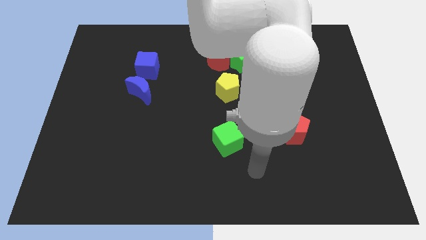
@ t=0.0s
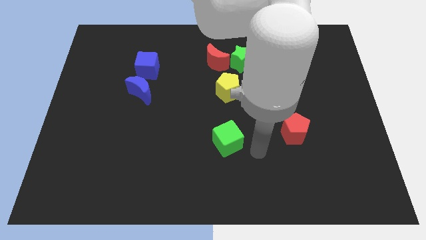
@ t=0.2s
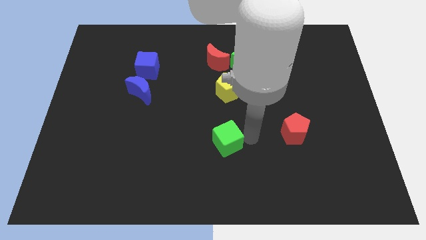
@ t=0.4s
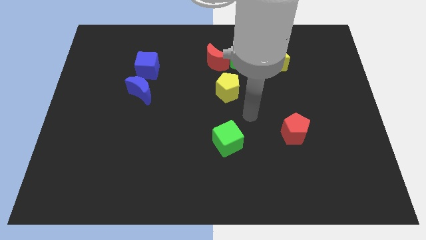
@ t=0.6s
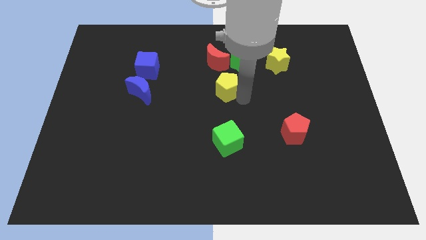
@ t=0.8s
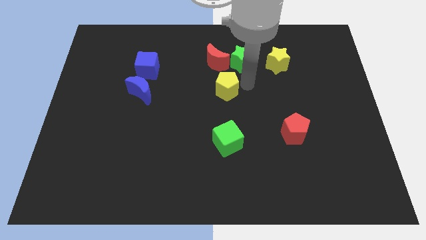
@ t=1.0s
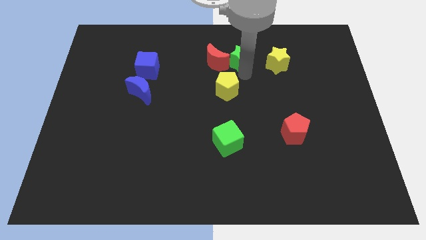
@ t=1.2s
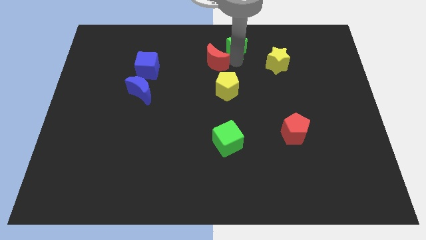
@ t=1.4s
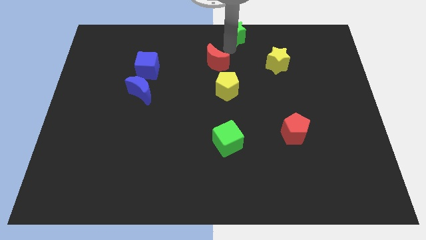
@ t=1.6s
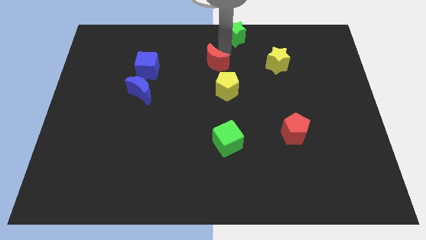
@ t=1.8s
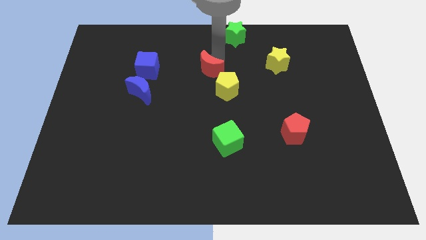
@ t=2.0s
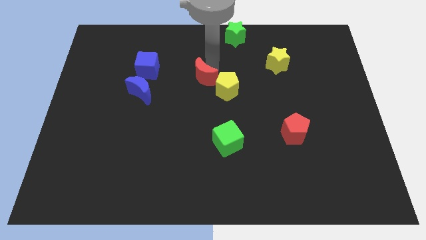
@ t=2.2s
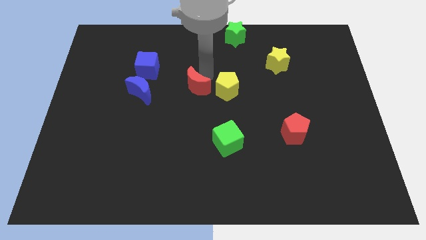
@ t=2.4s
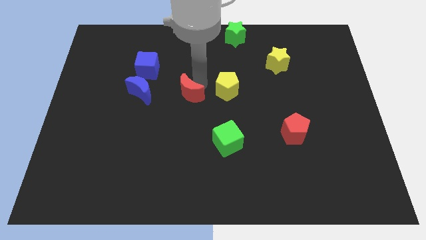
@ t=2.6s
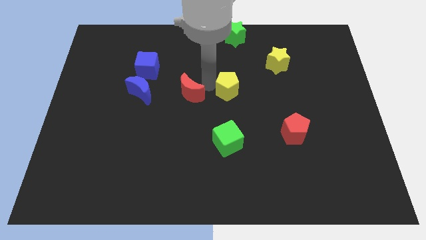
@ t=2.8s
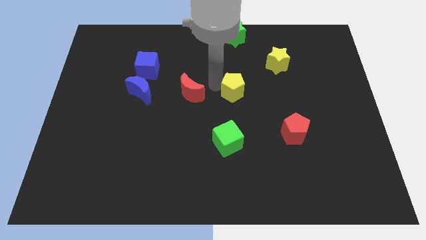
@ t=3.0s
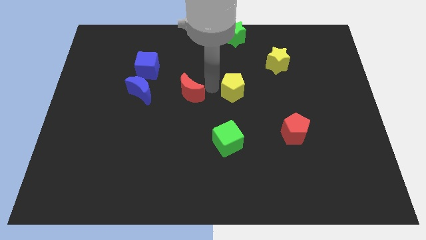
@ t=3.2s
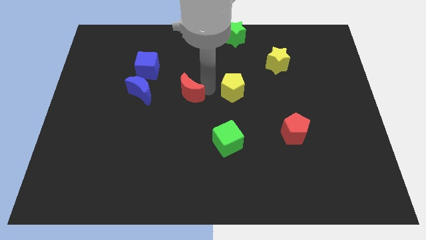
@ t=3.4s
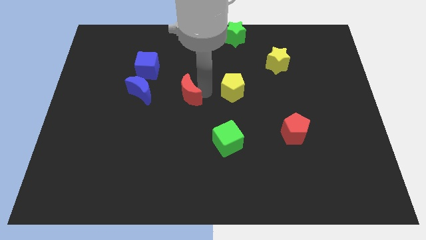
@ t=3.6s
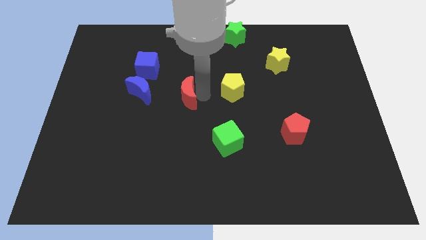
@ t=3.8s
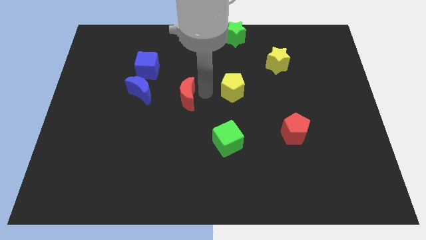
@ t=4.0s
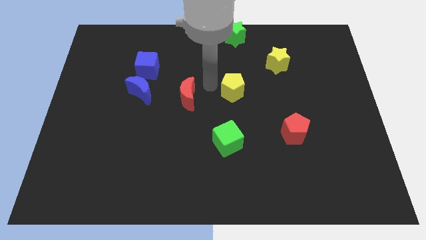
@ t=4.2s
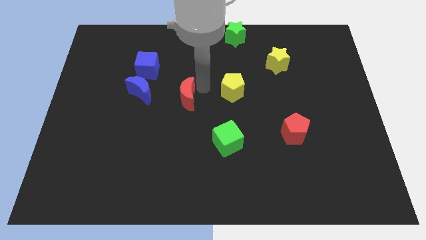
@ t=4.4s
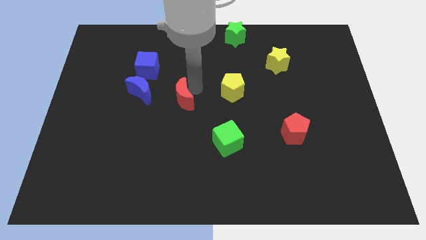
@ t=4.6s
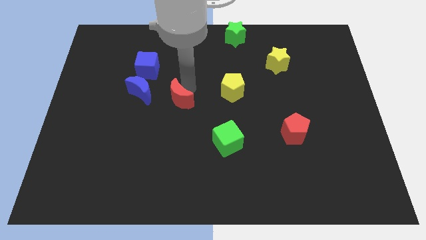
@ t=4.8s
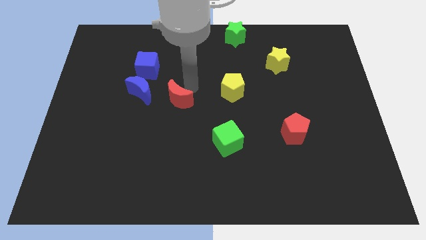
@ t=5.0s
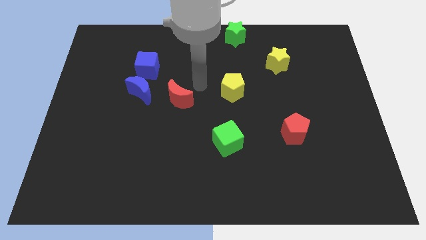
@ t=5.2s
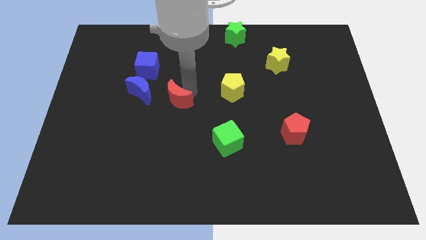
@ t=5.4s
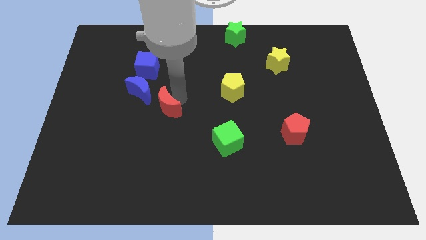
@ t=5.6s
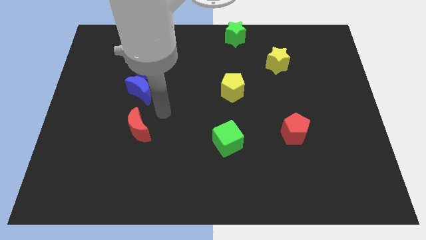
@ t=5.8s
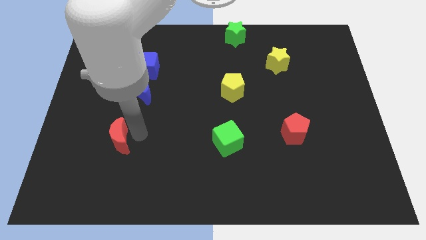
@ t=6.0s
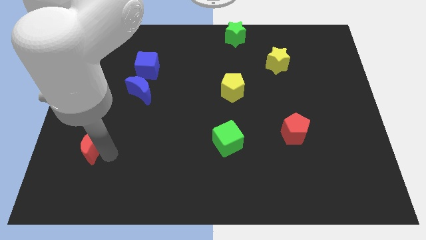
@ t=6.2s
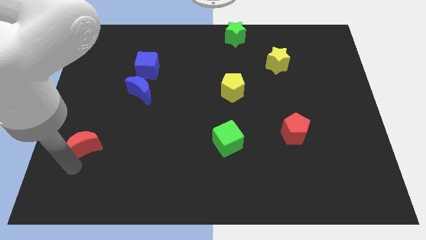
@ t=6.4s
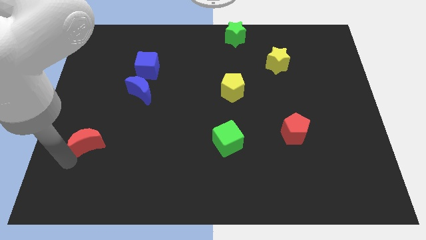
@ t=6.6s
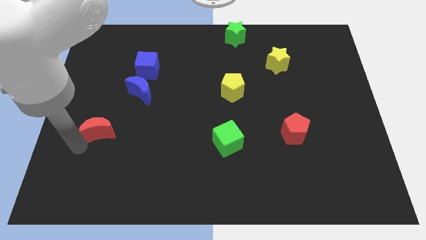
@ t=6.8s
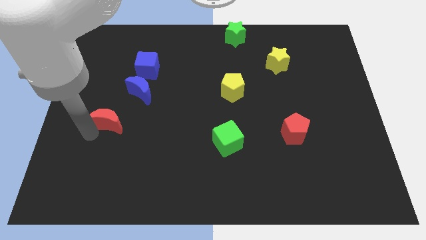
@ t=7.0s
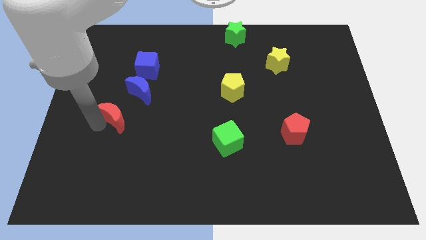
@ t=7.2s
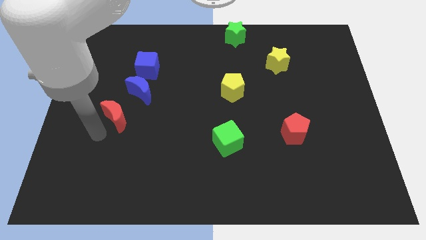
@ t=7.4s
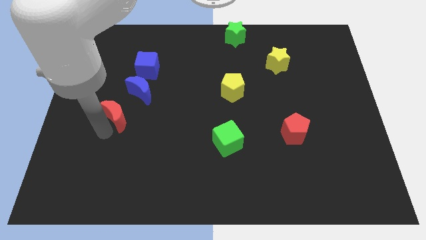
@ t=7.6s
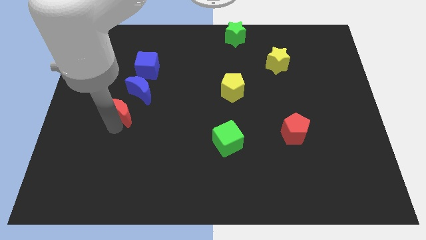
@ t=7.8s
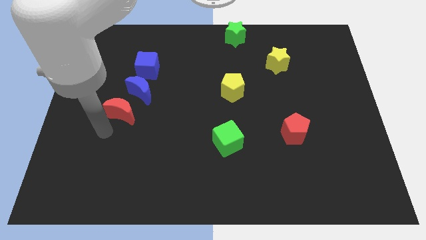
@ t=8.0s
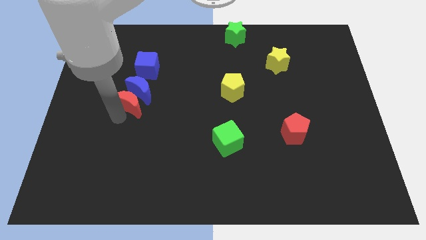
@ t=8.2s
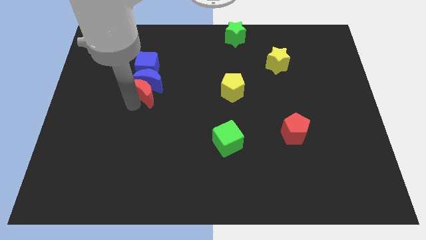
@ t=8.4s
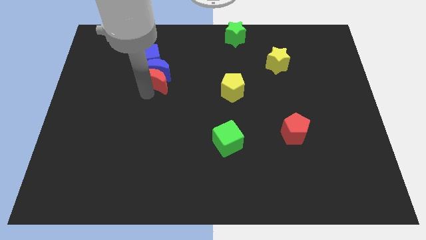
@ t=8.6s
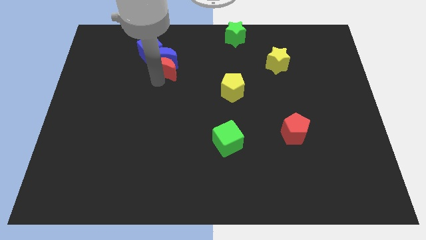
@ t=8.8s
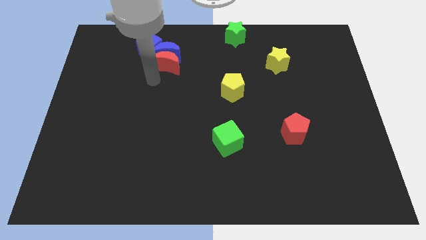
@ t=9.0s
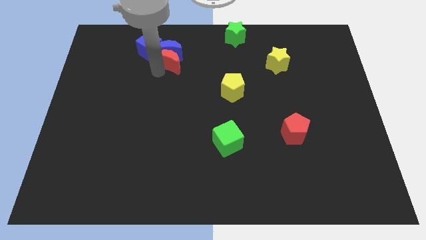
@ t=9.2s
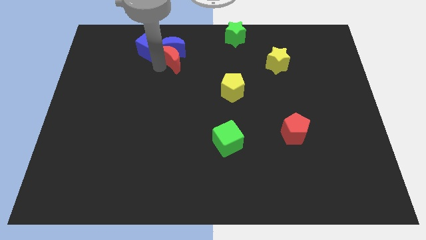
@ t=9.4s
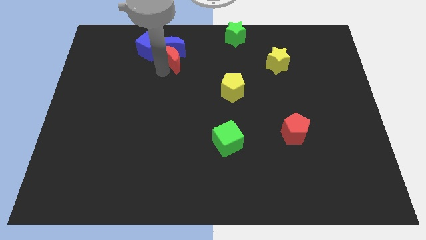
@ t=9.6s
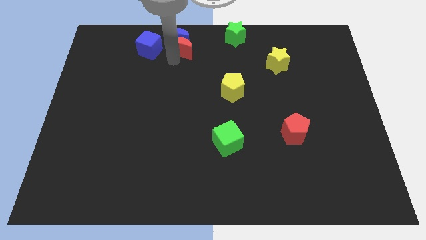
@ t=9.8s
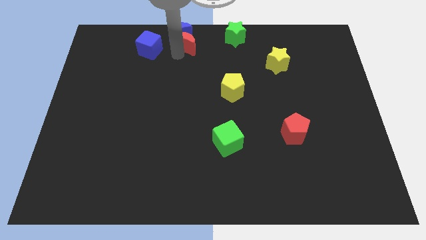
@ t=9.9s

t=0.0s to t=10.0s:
slide the red moon to the top

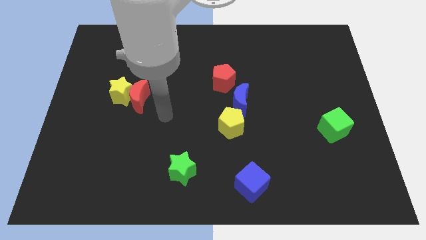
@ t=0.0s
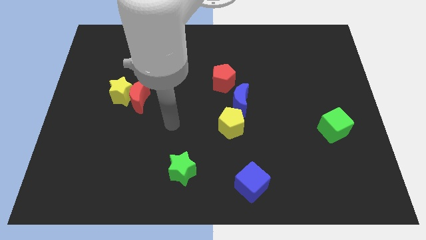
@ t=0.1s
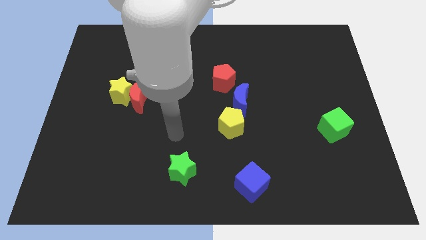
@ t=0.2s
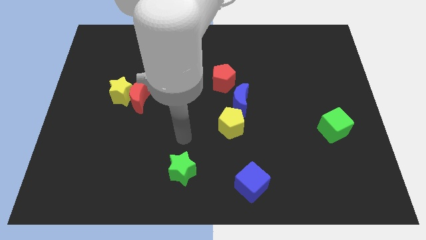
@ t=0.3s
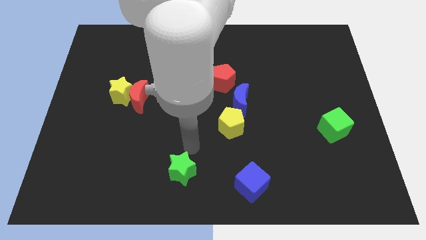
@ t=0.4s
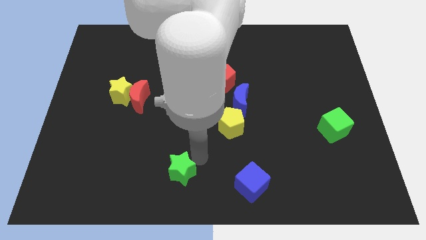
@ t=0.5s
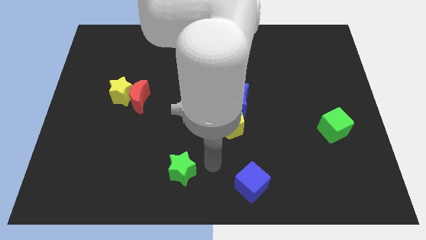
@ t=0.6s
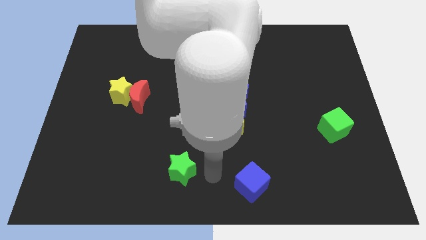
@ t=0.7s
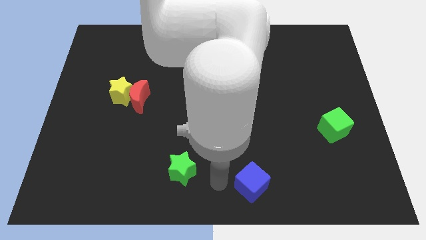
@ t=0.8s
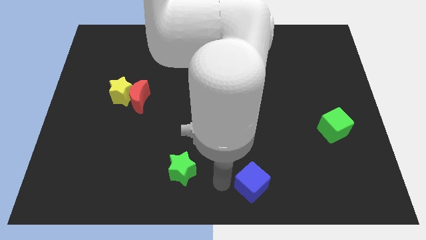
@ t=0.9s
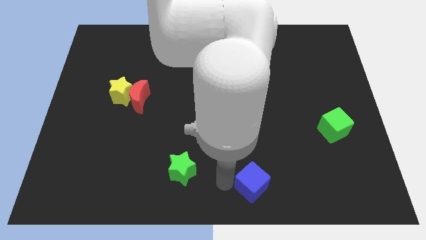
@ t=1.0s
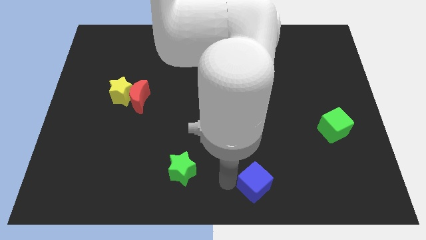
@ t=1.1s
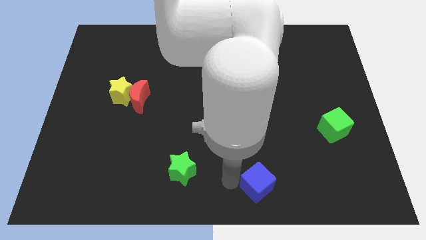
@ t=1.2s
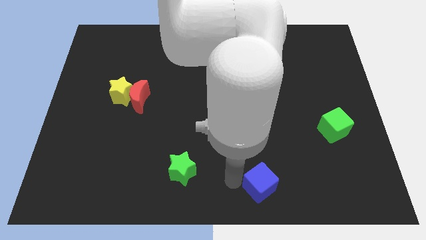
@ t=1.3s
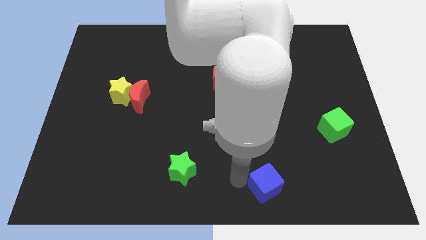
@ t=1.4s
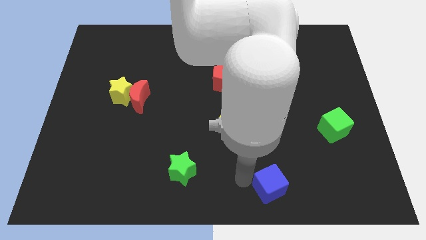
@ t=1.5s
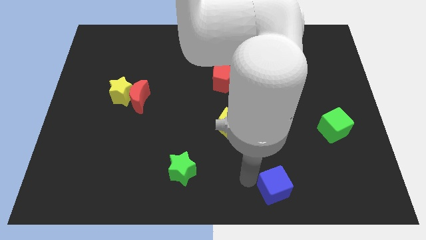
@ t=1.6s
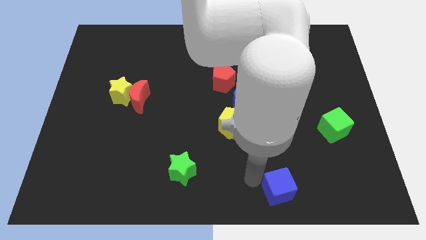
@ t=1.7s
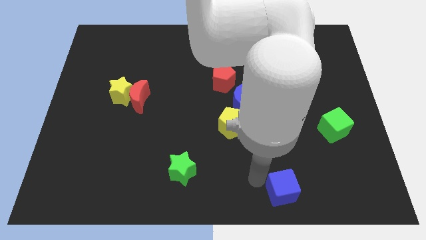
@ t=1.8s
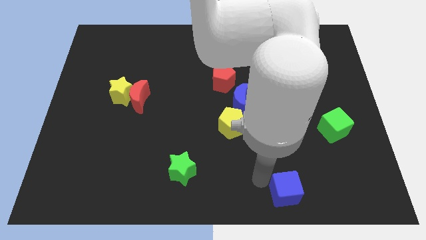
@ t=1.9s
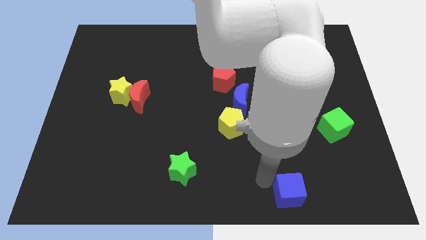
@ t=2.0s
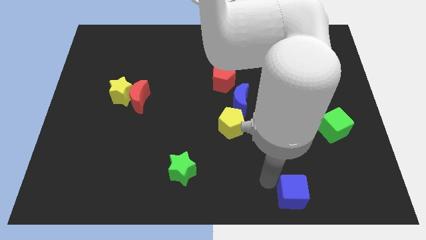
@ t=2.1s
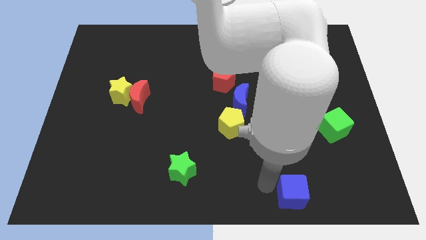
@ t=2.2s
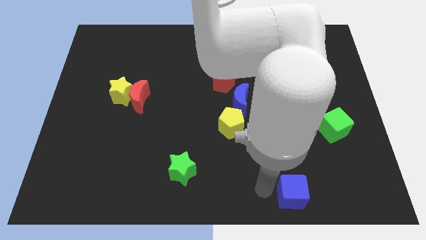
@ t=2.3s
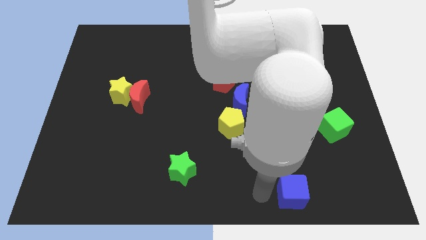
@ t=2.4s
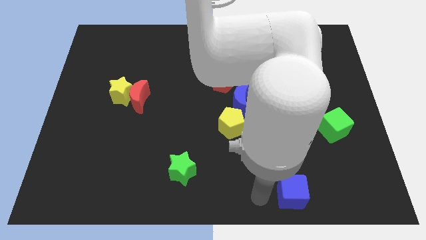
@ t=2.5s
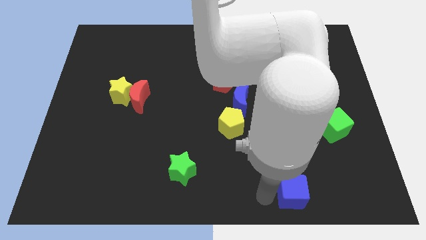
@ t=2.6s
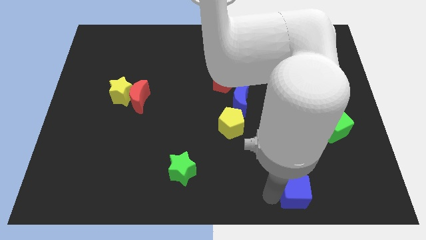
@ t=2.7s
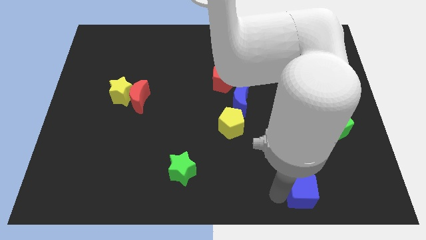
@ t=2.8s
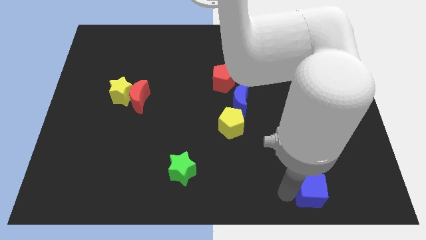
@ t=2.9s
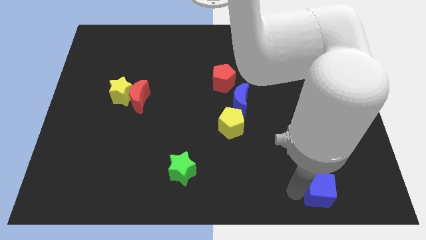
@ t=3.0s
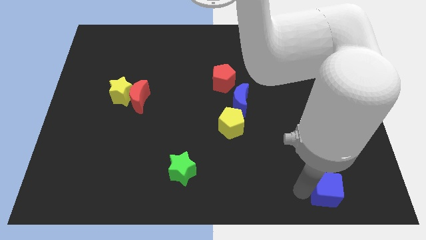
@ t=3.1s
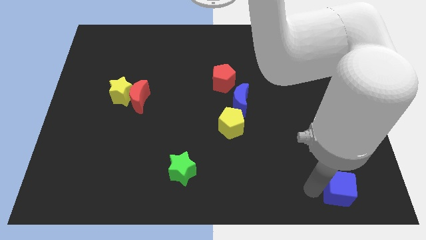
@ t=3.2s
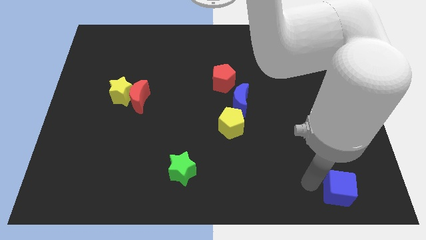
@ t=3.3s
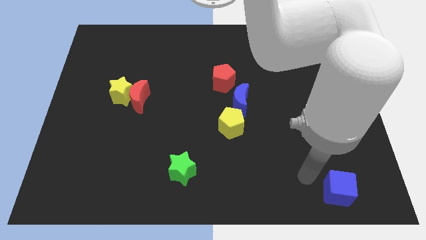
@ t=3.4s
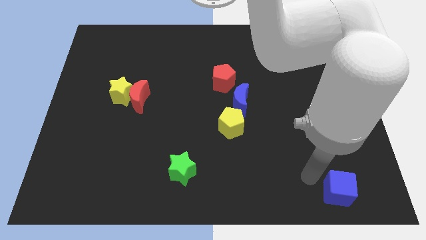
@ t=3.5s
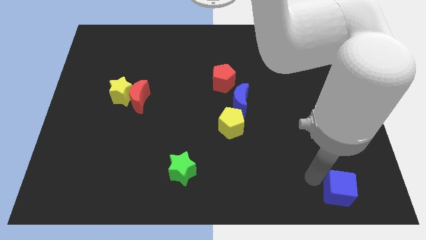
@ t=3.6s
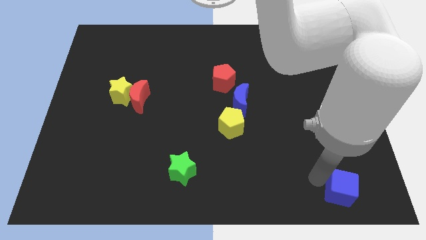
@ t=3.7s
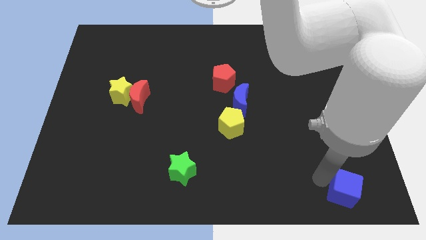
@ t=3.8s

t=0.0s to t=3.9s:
slide the blue cube to the bottom right corner
